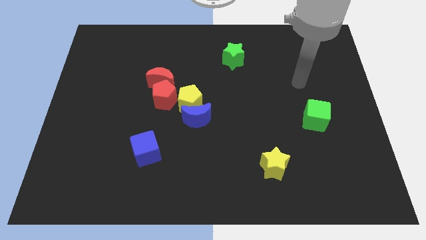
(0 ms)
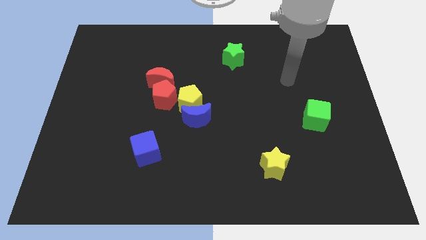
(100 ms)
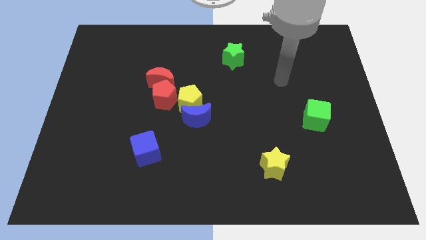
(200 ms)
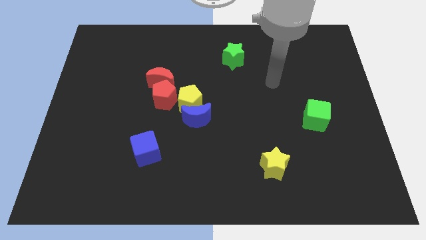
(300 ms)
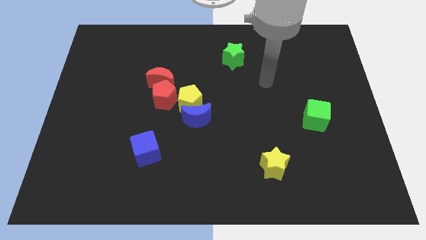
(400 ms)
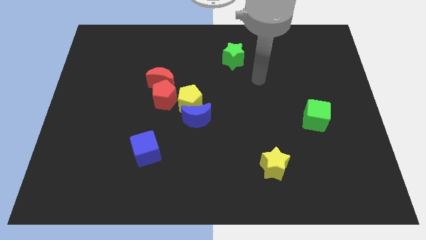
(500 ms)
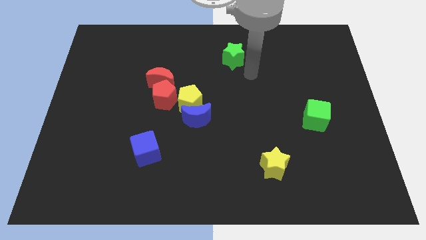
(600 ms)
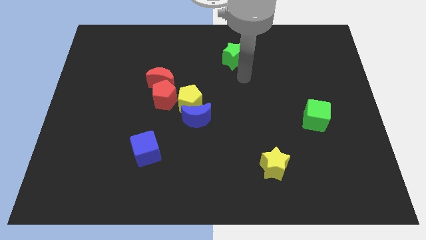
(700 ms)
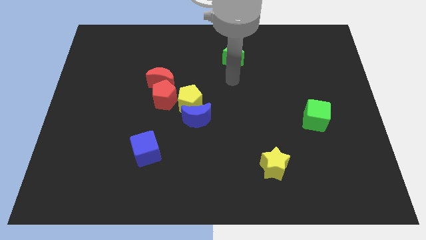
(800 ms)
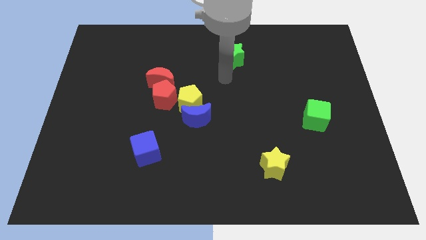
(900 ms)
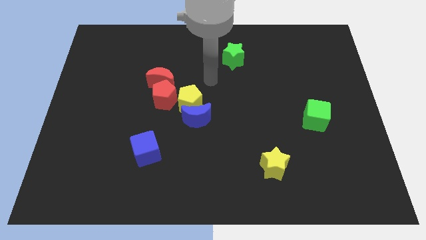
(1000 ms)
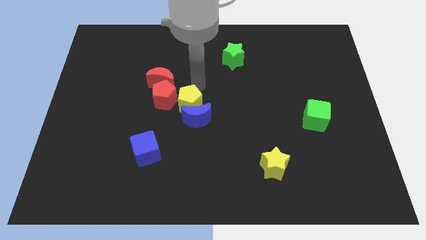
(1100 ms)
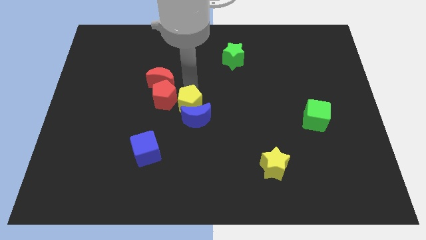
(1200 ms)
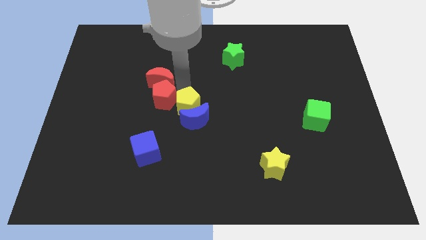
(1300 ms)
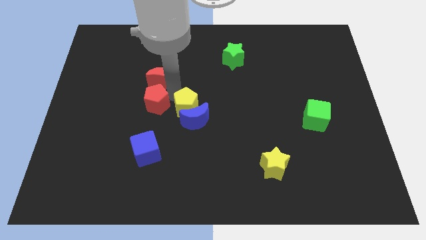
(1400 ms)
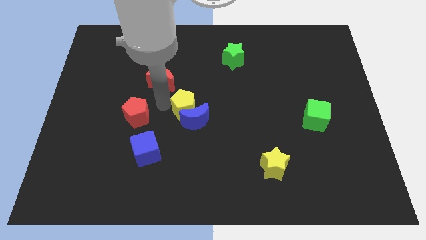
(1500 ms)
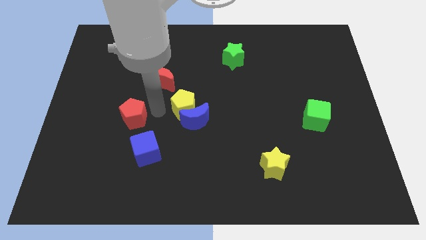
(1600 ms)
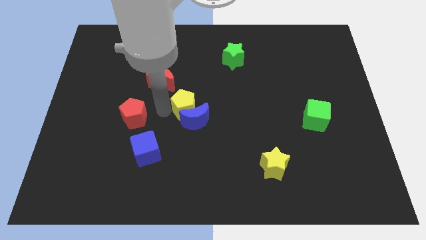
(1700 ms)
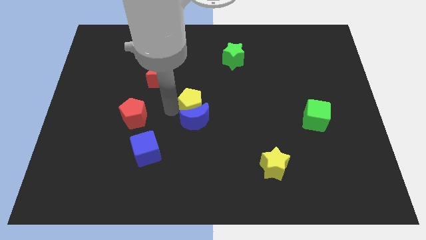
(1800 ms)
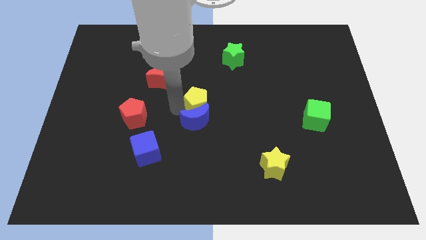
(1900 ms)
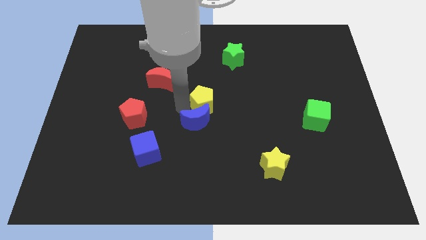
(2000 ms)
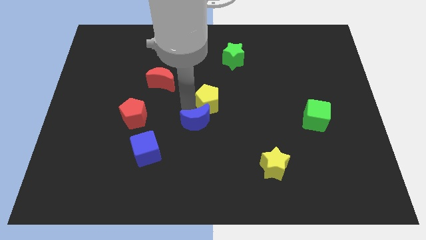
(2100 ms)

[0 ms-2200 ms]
move the yellow pentagon away from the clump

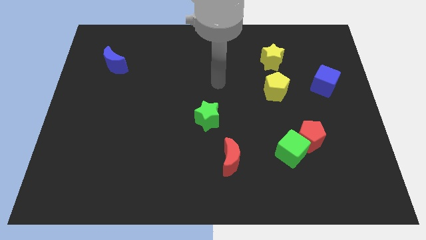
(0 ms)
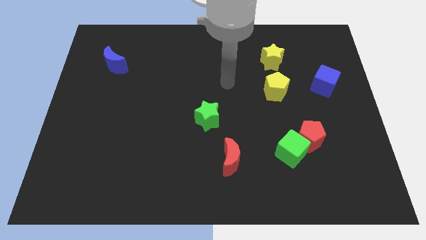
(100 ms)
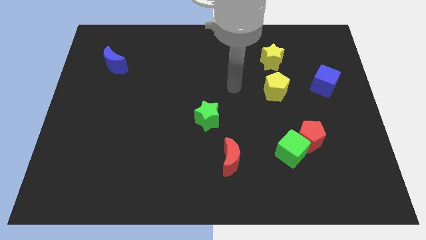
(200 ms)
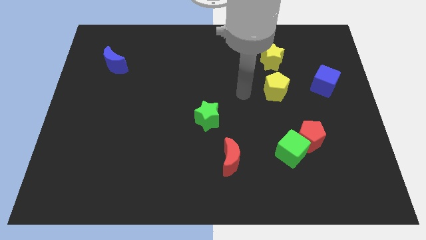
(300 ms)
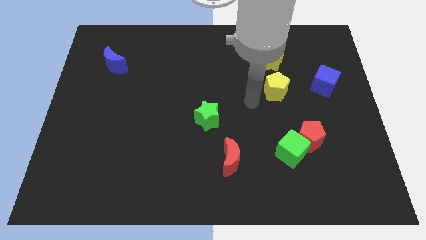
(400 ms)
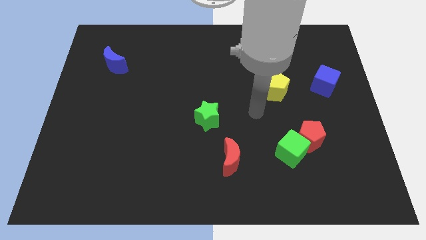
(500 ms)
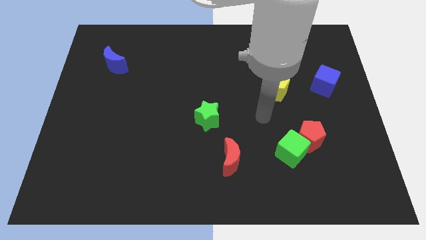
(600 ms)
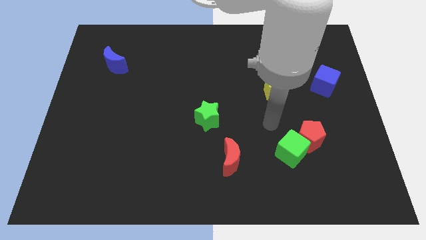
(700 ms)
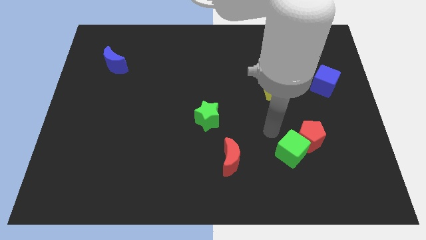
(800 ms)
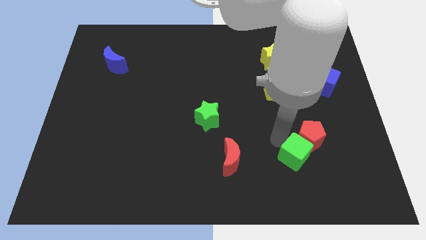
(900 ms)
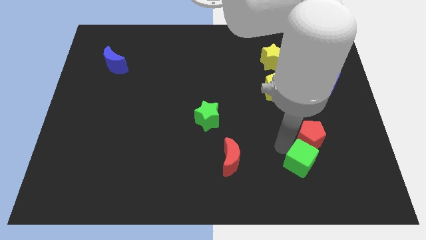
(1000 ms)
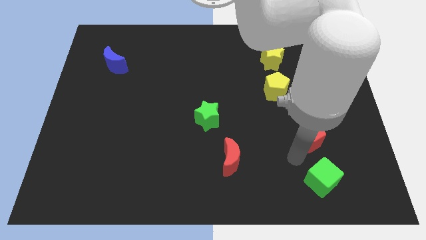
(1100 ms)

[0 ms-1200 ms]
move the red pentagon away from the green cube

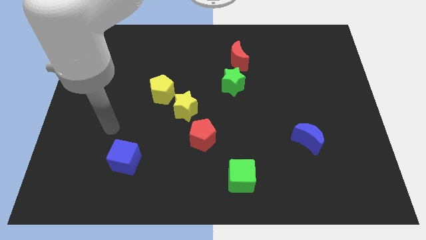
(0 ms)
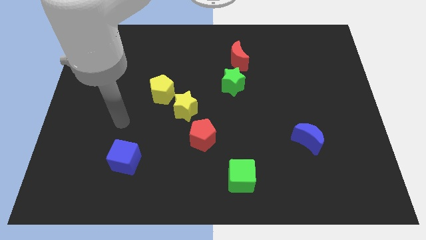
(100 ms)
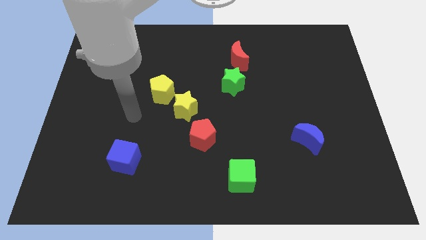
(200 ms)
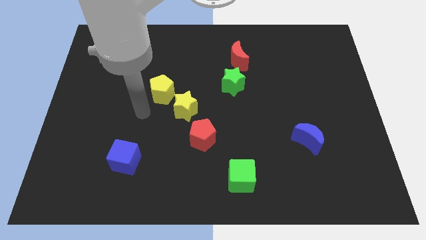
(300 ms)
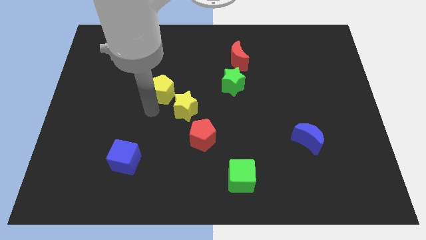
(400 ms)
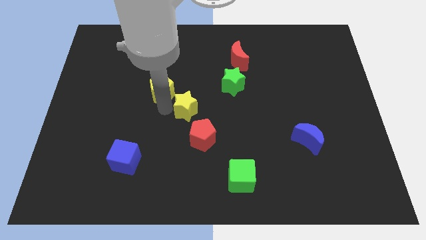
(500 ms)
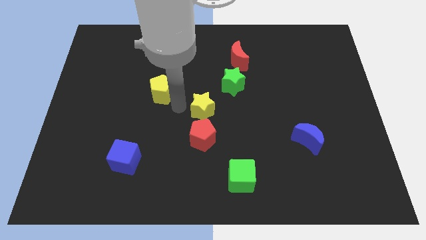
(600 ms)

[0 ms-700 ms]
separate the yellow pentagon from the yellow star

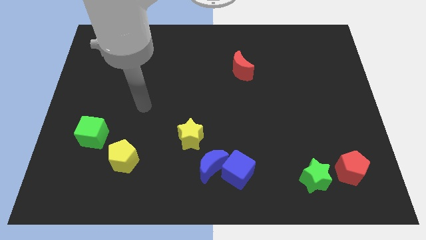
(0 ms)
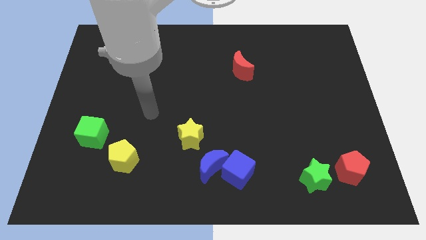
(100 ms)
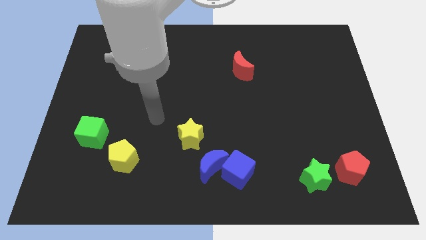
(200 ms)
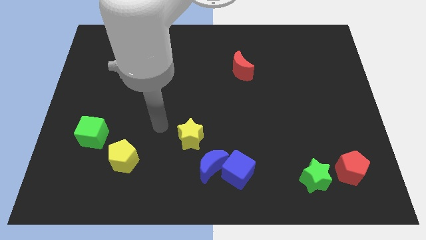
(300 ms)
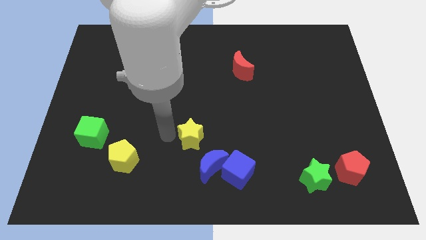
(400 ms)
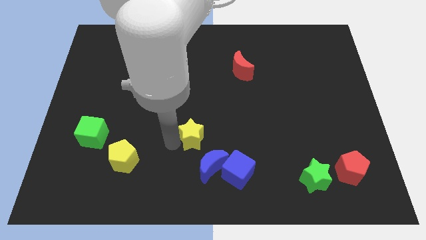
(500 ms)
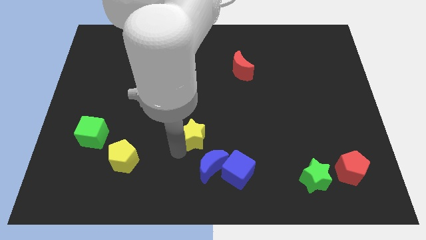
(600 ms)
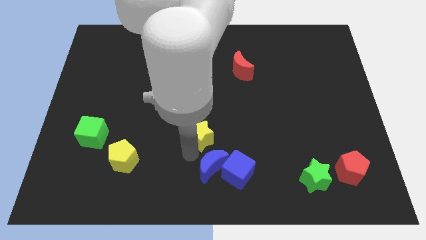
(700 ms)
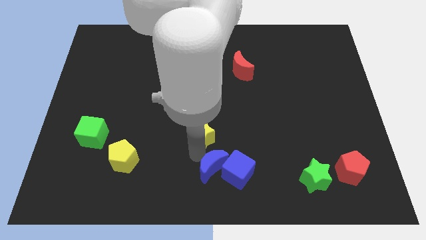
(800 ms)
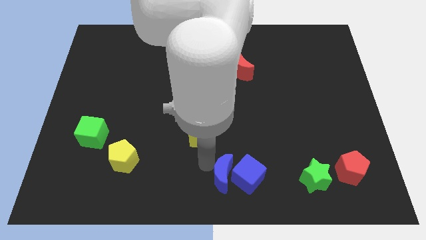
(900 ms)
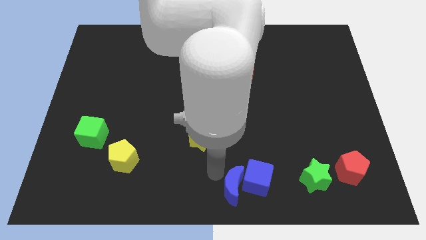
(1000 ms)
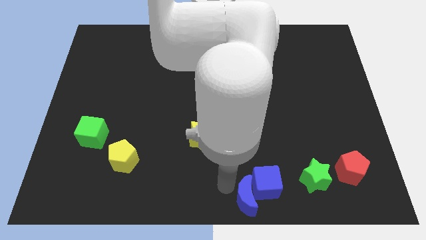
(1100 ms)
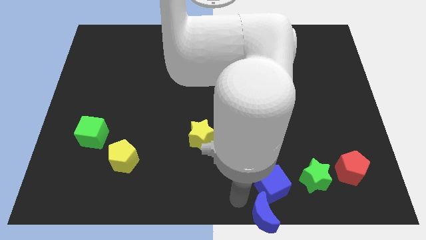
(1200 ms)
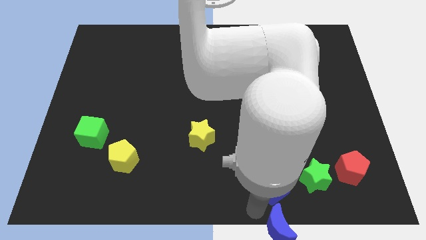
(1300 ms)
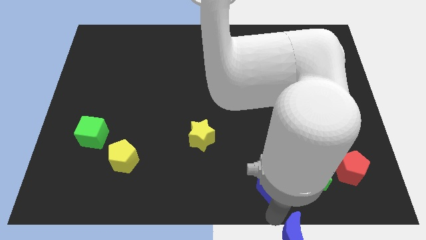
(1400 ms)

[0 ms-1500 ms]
separate the blue cube from the blue moon

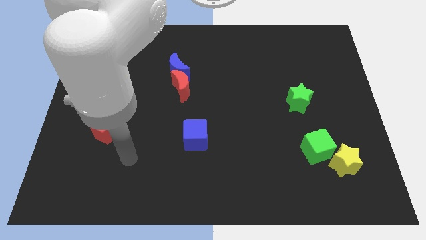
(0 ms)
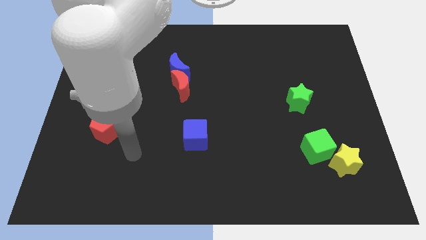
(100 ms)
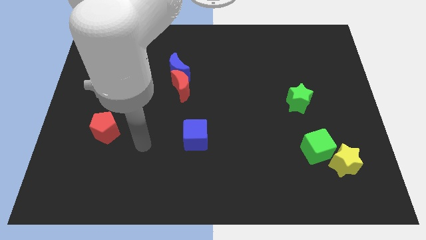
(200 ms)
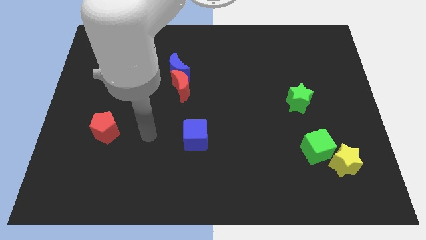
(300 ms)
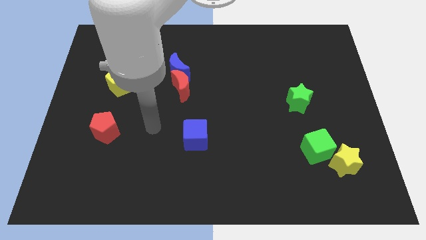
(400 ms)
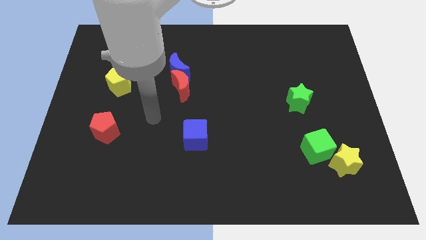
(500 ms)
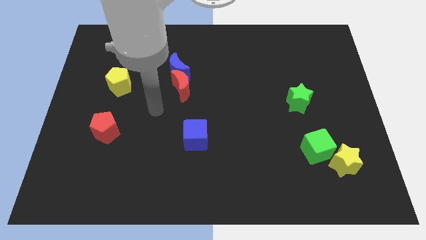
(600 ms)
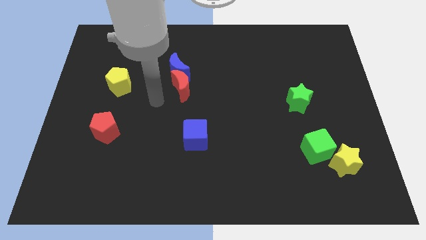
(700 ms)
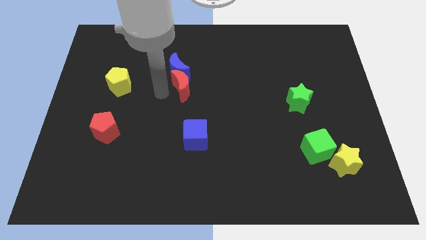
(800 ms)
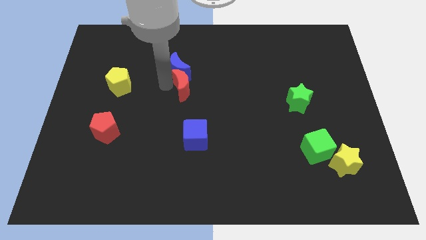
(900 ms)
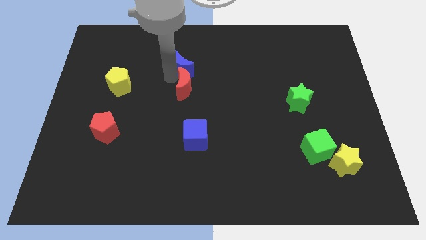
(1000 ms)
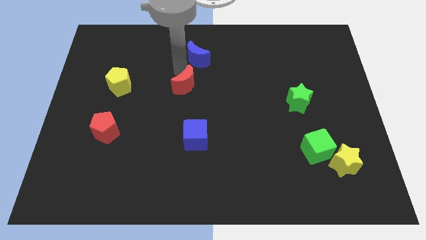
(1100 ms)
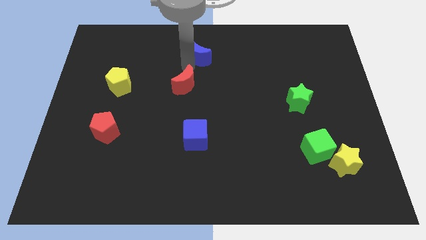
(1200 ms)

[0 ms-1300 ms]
separate the red moon from the blue moon

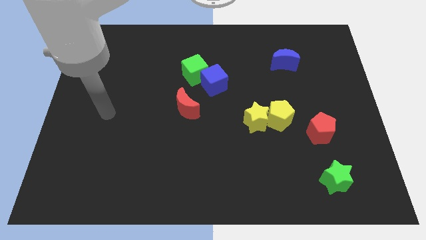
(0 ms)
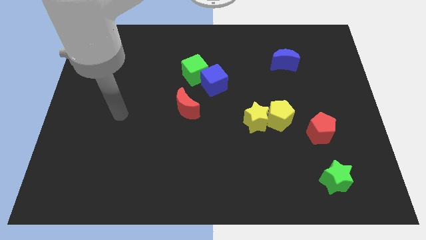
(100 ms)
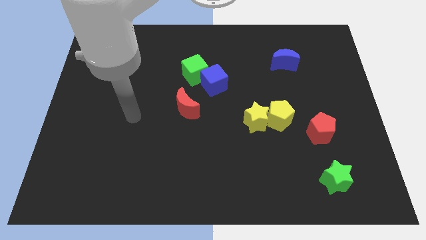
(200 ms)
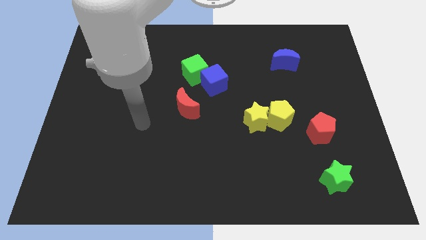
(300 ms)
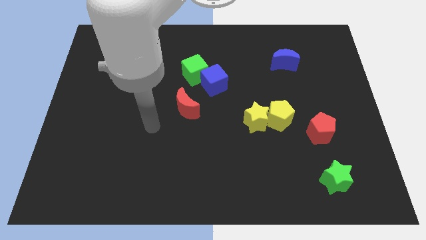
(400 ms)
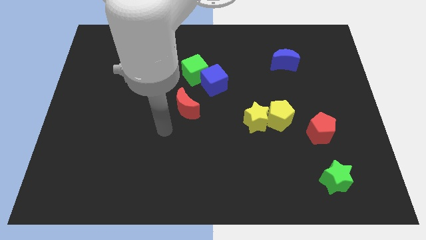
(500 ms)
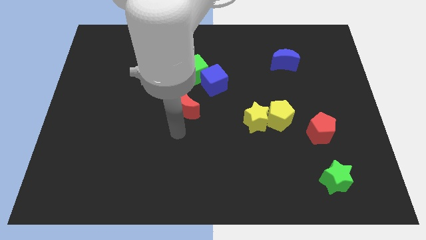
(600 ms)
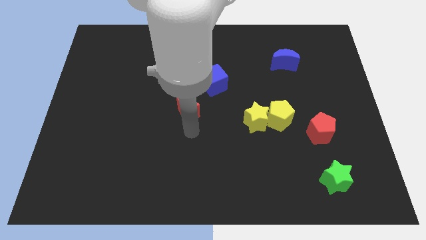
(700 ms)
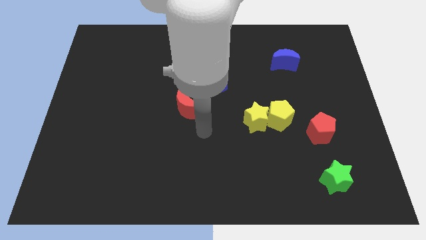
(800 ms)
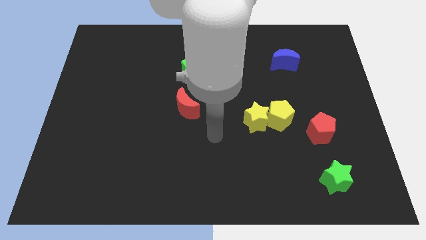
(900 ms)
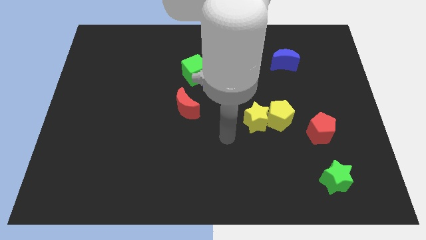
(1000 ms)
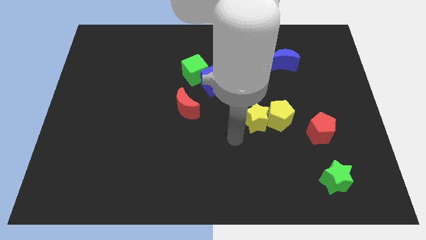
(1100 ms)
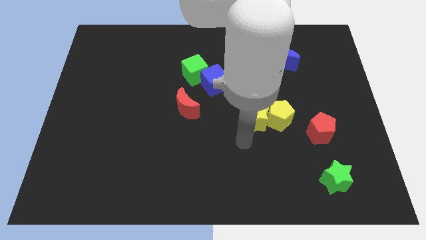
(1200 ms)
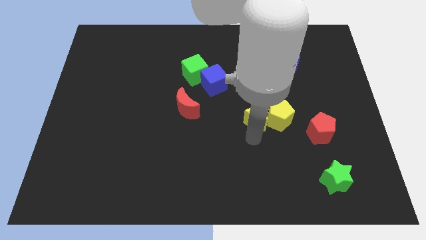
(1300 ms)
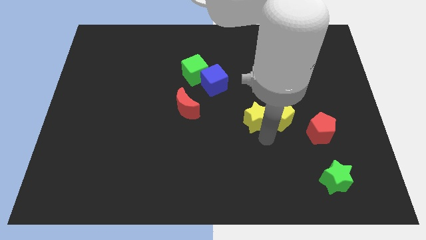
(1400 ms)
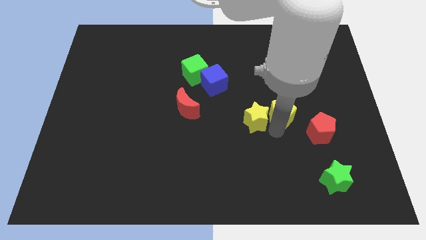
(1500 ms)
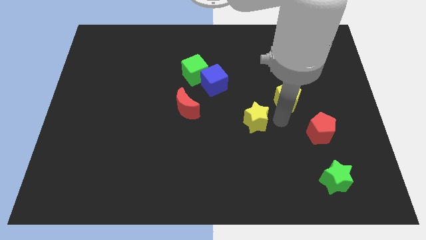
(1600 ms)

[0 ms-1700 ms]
pull the yellow star apart from the yellow pentagon

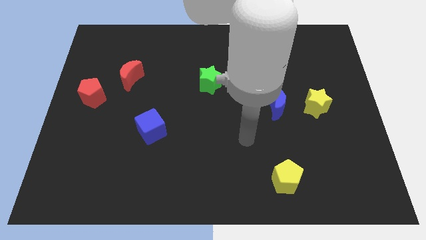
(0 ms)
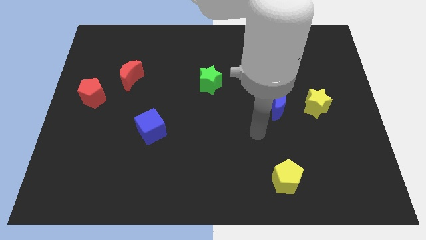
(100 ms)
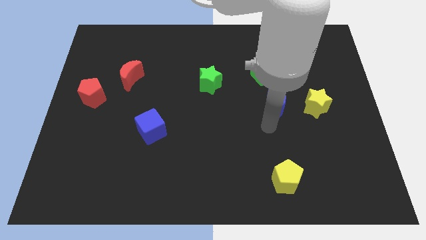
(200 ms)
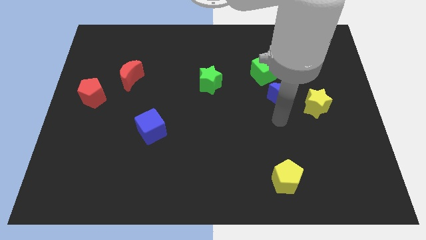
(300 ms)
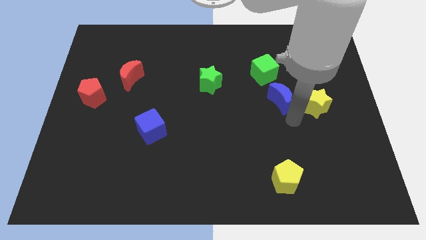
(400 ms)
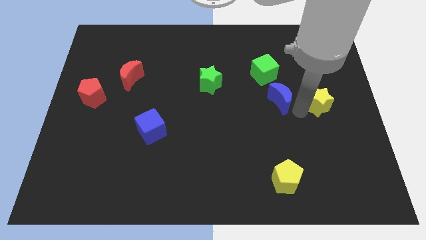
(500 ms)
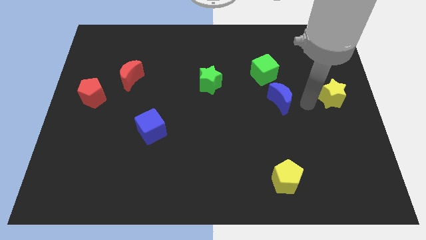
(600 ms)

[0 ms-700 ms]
pull the blue moon apart from the yellow star

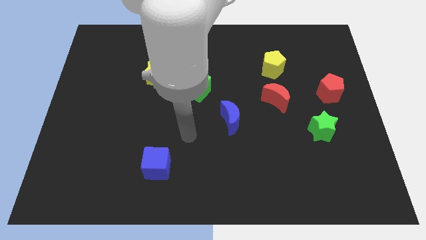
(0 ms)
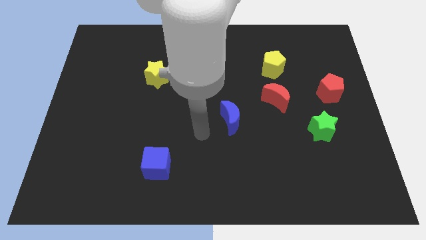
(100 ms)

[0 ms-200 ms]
move the red moon away from the yellow pentagon
